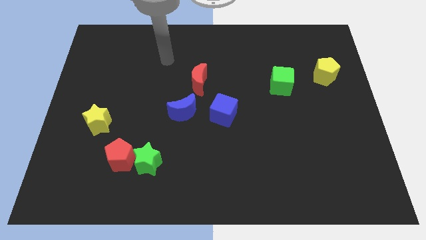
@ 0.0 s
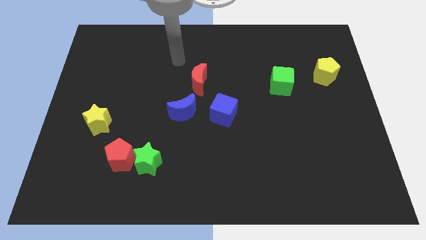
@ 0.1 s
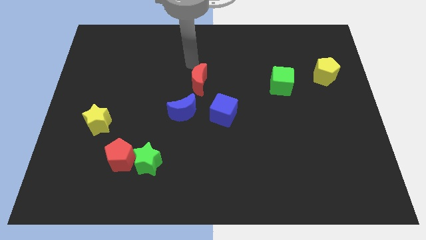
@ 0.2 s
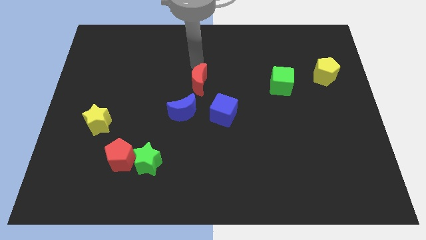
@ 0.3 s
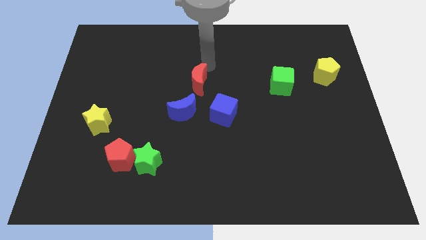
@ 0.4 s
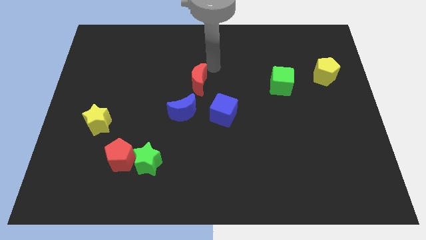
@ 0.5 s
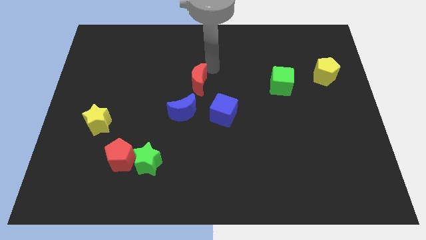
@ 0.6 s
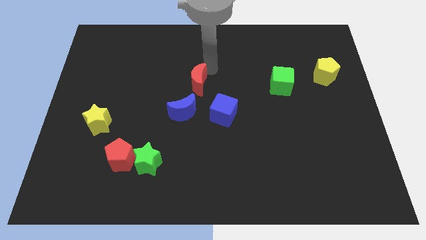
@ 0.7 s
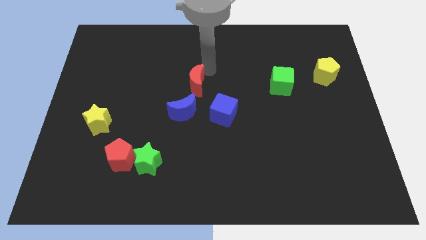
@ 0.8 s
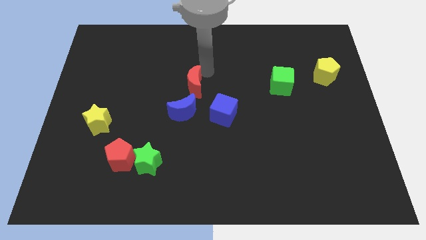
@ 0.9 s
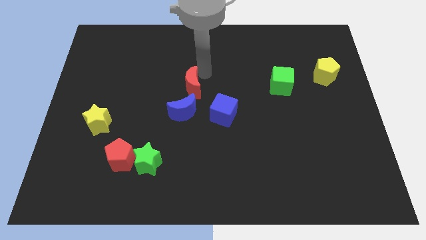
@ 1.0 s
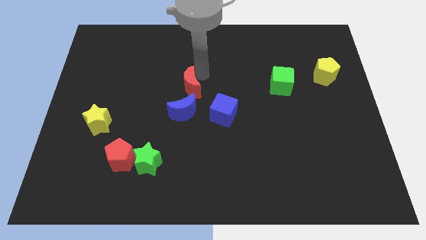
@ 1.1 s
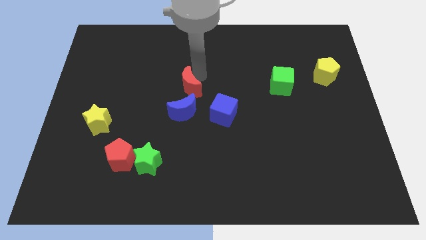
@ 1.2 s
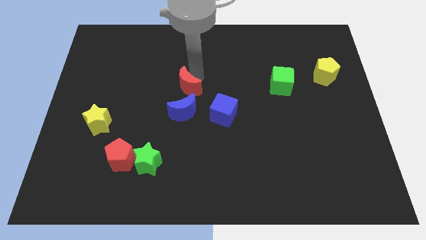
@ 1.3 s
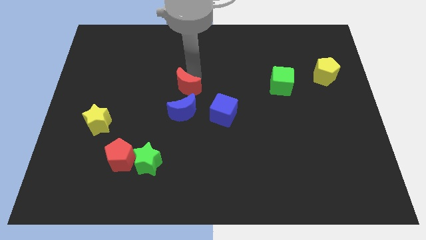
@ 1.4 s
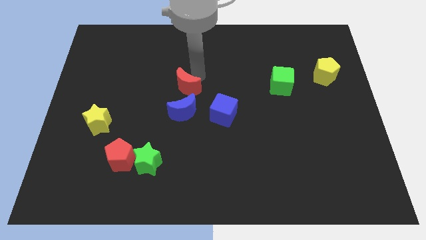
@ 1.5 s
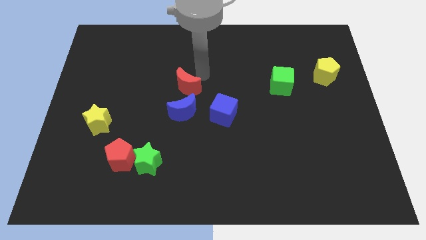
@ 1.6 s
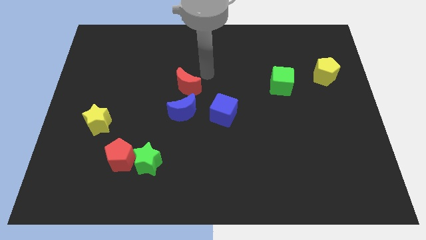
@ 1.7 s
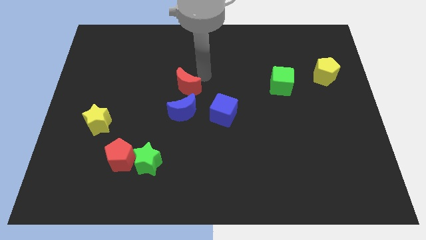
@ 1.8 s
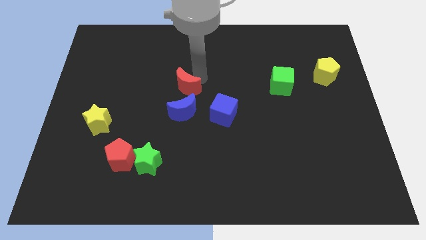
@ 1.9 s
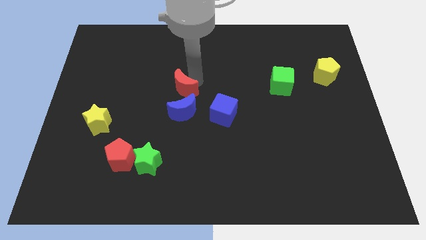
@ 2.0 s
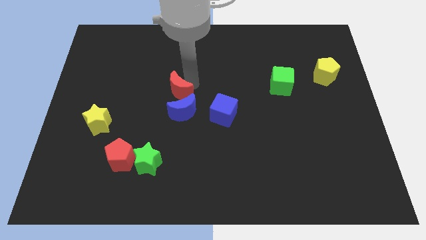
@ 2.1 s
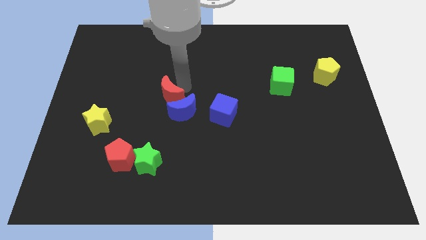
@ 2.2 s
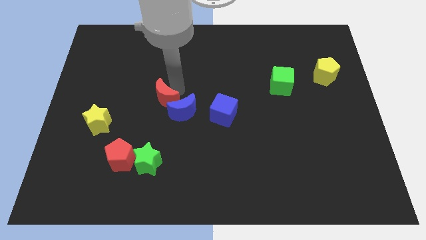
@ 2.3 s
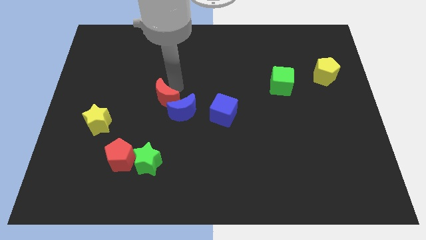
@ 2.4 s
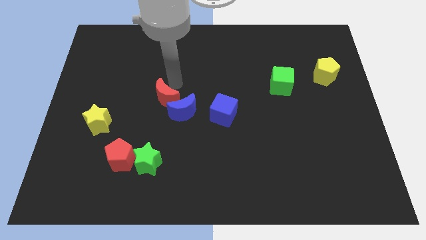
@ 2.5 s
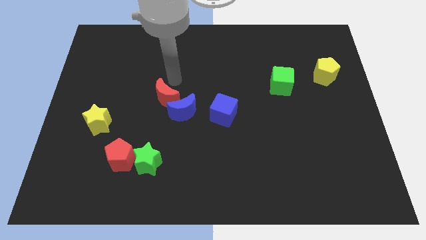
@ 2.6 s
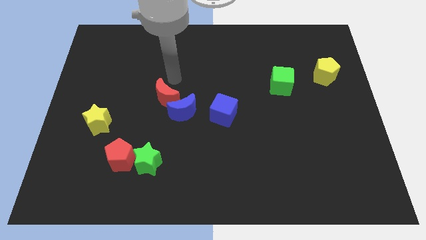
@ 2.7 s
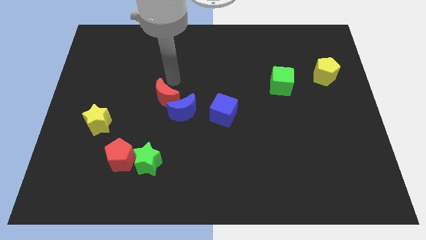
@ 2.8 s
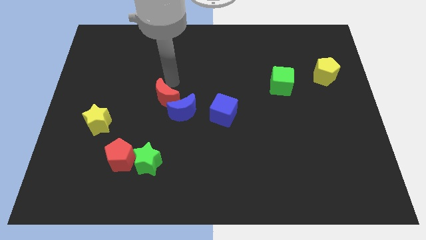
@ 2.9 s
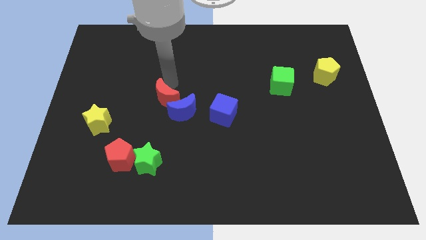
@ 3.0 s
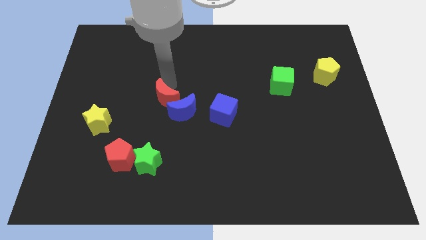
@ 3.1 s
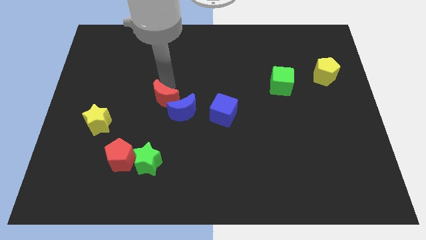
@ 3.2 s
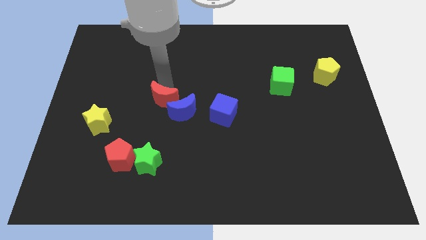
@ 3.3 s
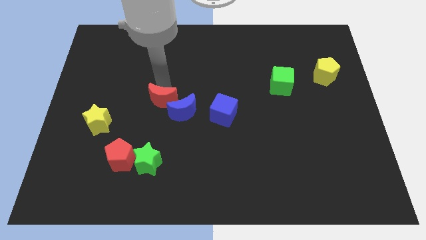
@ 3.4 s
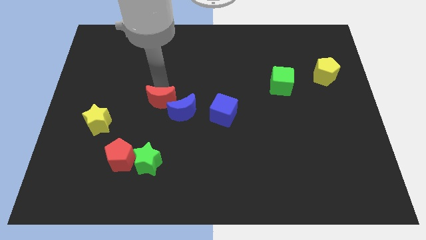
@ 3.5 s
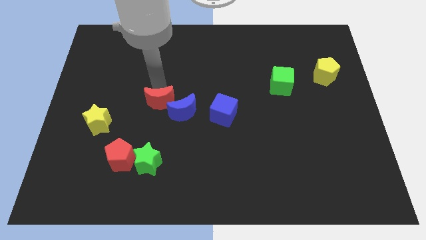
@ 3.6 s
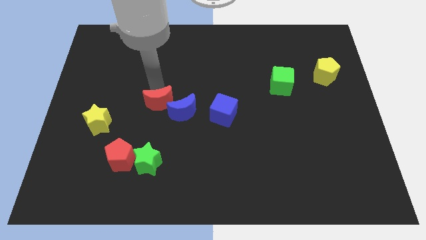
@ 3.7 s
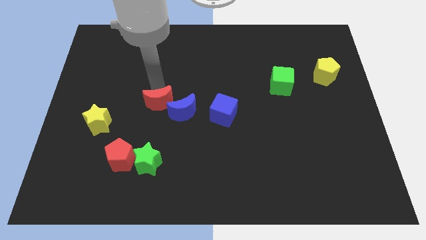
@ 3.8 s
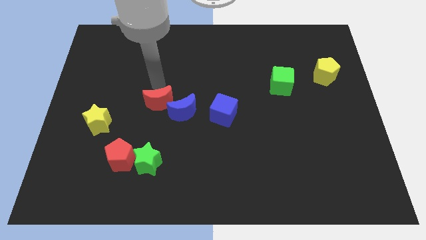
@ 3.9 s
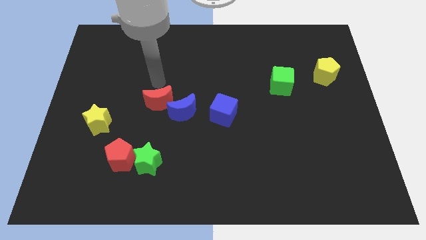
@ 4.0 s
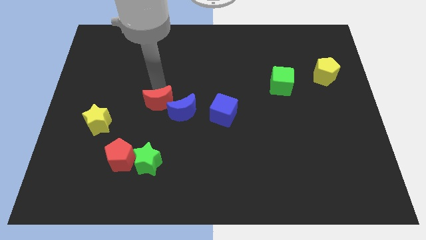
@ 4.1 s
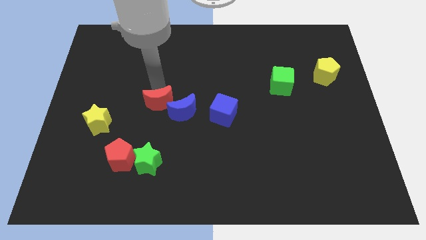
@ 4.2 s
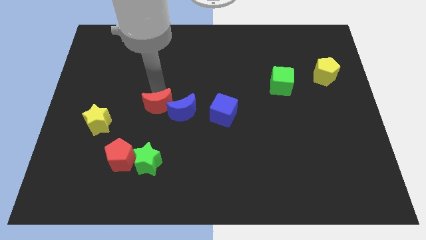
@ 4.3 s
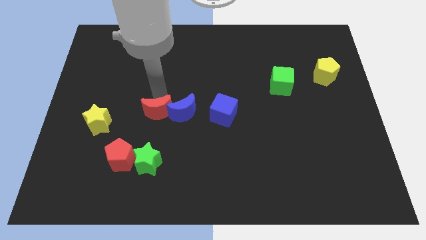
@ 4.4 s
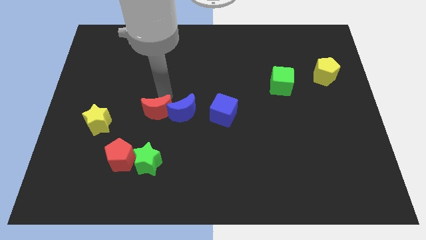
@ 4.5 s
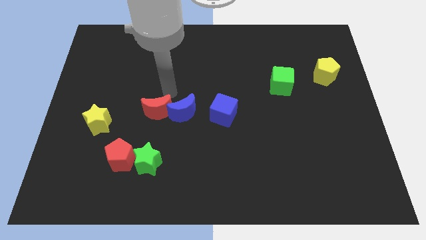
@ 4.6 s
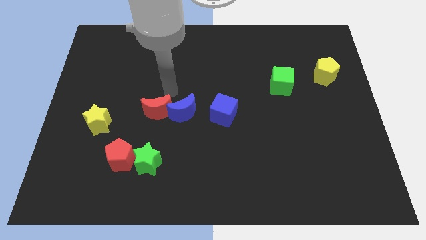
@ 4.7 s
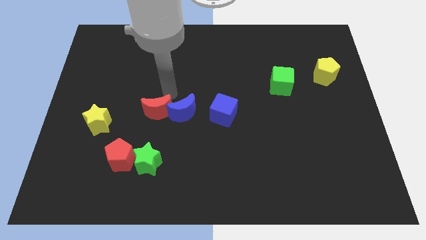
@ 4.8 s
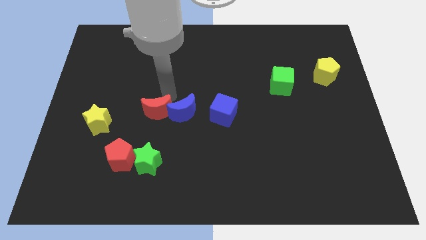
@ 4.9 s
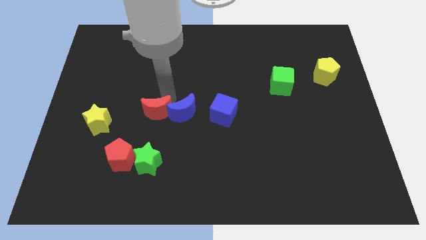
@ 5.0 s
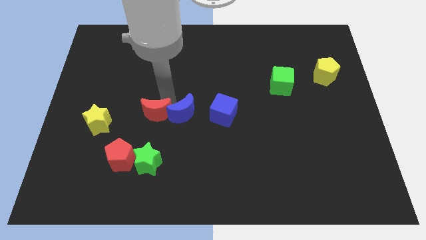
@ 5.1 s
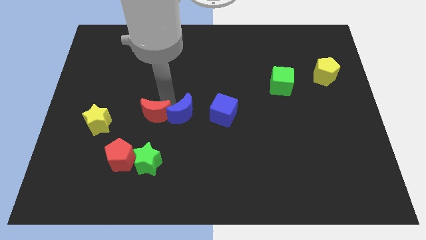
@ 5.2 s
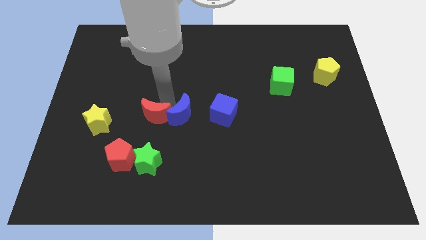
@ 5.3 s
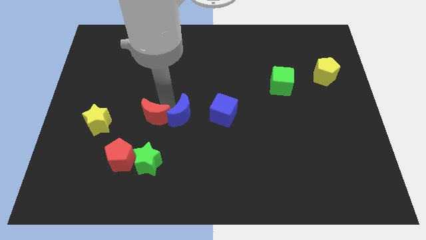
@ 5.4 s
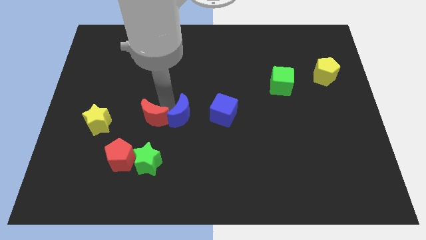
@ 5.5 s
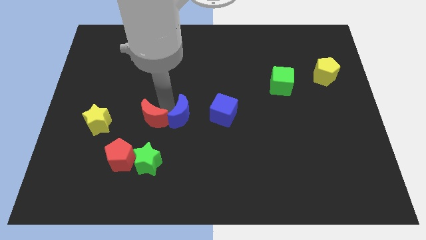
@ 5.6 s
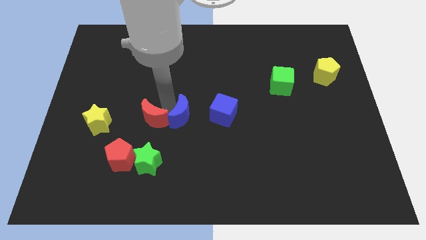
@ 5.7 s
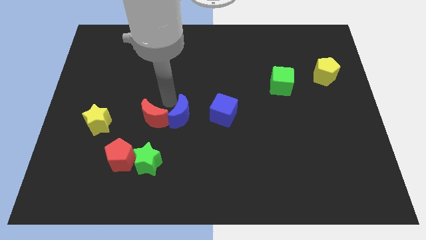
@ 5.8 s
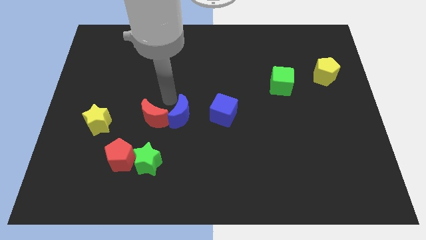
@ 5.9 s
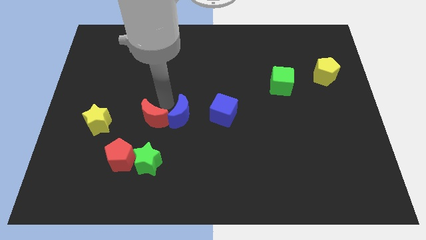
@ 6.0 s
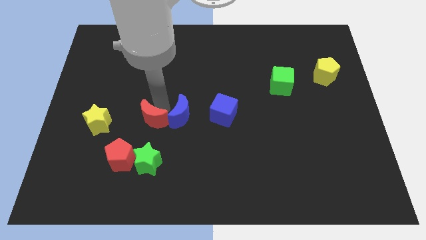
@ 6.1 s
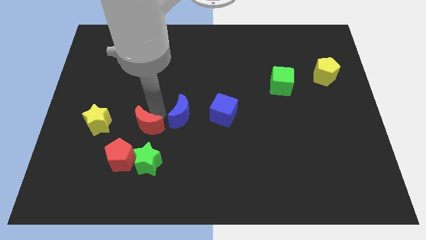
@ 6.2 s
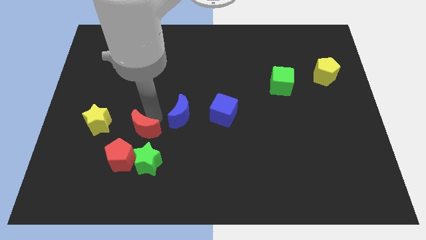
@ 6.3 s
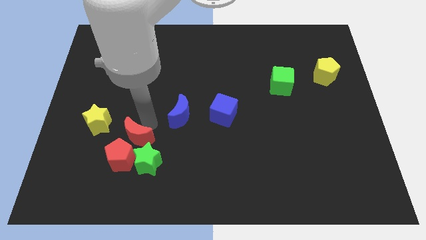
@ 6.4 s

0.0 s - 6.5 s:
put the red moon to the red pentagon

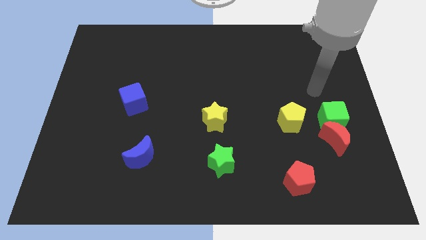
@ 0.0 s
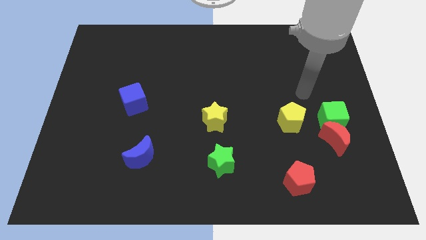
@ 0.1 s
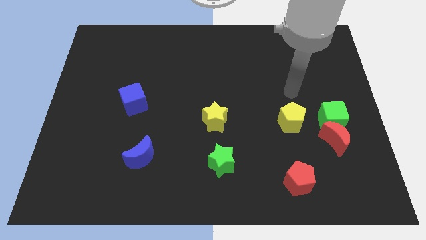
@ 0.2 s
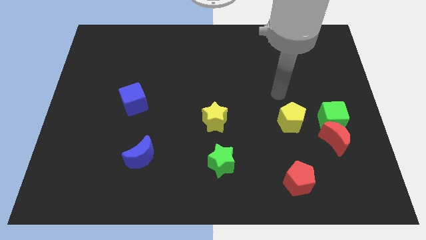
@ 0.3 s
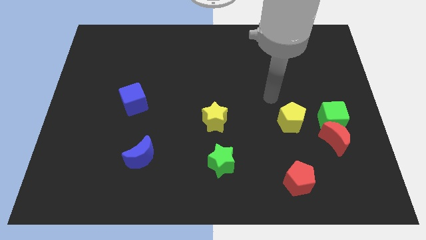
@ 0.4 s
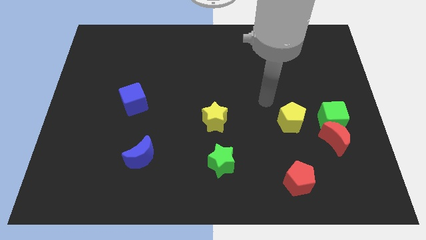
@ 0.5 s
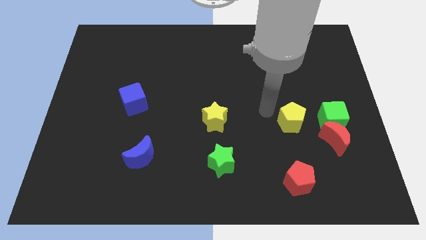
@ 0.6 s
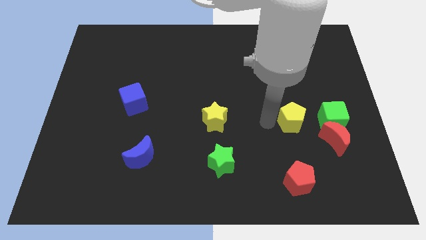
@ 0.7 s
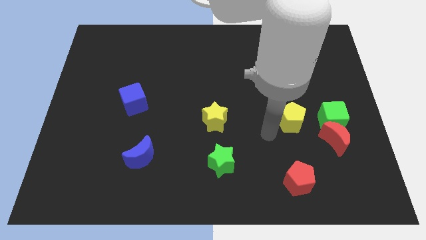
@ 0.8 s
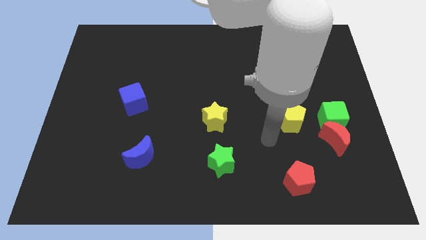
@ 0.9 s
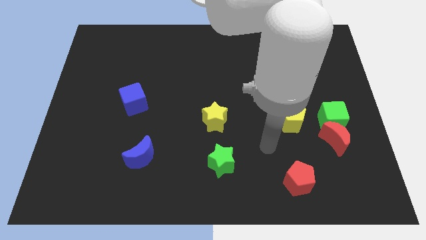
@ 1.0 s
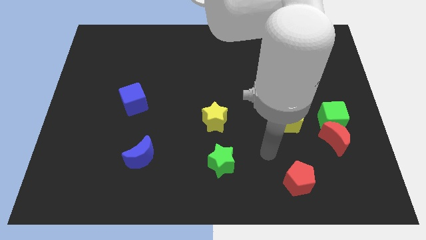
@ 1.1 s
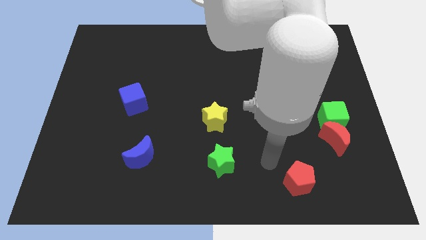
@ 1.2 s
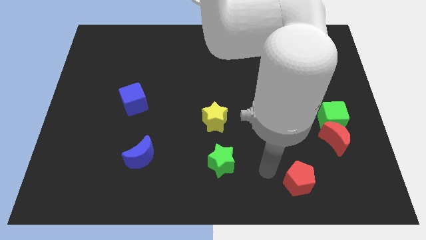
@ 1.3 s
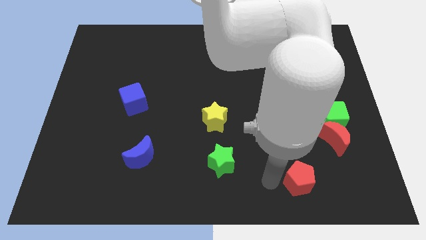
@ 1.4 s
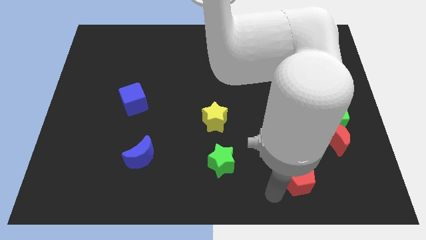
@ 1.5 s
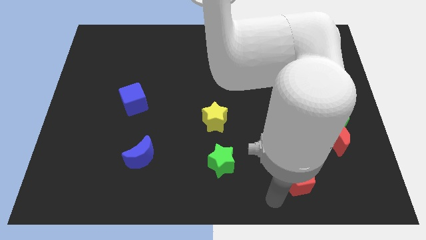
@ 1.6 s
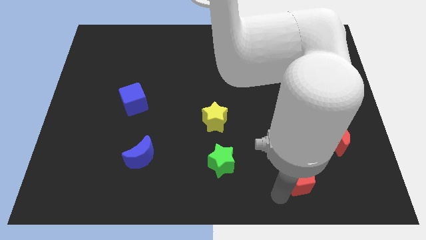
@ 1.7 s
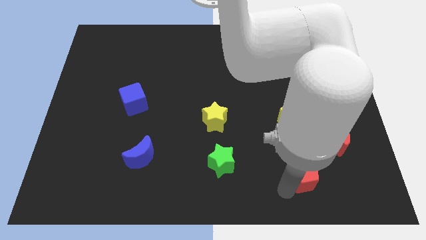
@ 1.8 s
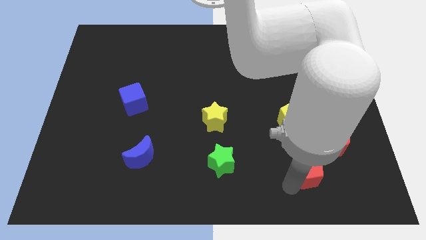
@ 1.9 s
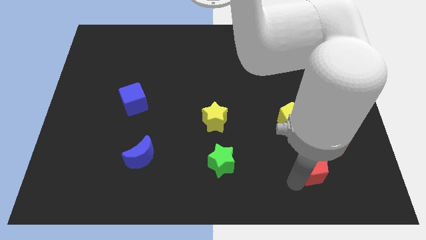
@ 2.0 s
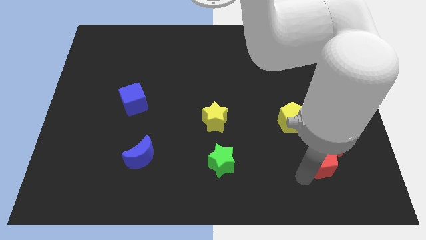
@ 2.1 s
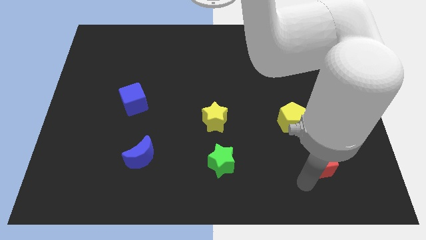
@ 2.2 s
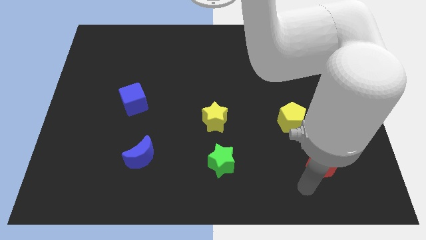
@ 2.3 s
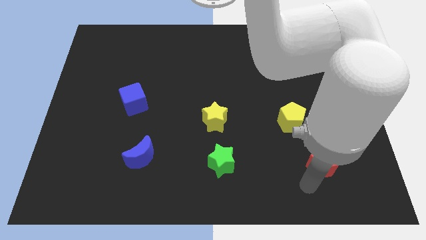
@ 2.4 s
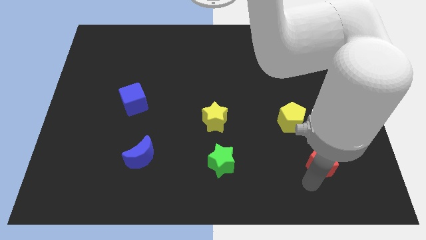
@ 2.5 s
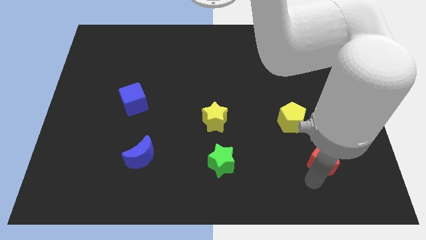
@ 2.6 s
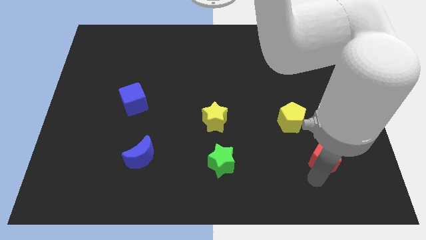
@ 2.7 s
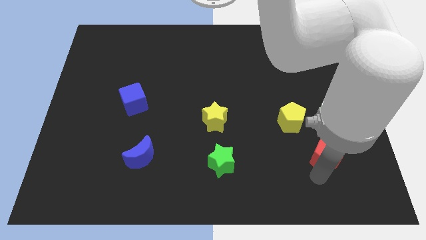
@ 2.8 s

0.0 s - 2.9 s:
move the red pentagon to the red moon
